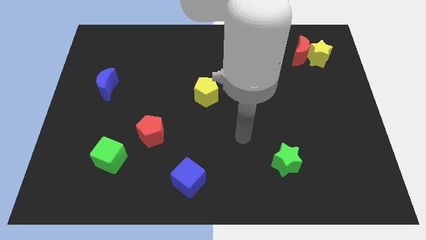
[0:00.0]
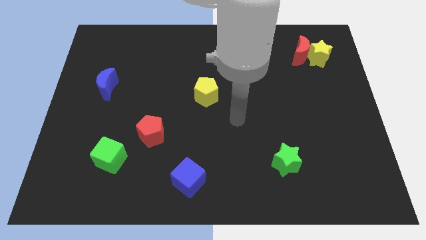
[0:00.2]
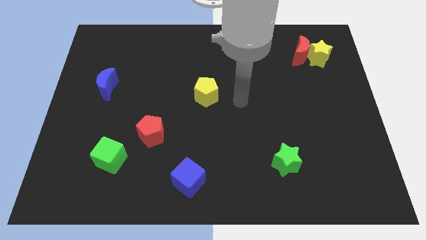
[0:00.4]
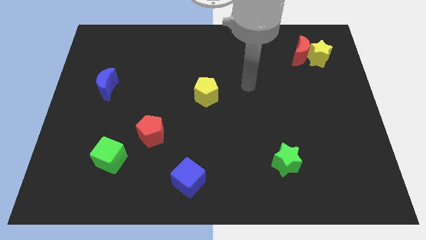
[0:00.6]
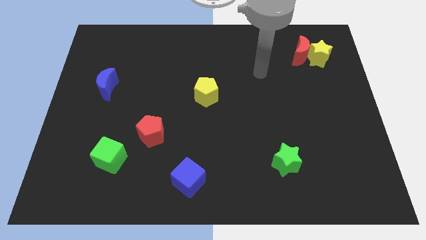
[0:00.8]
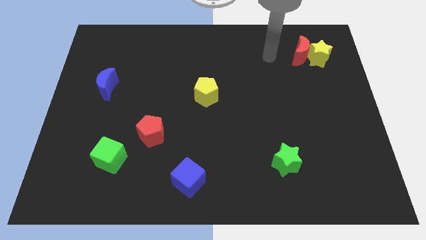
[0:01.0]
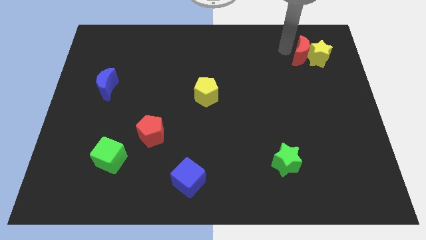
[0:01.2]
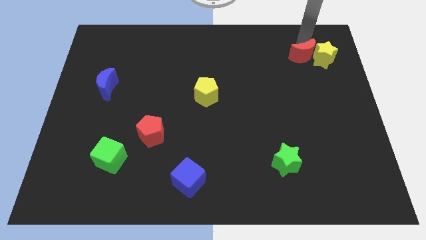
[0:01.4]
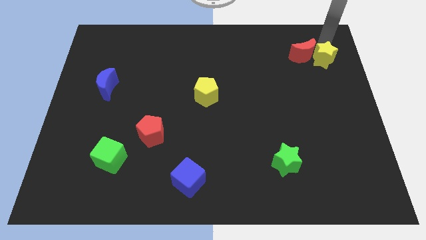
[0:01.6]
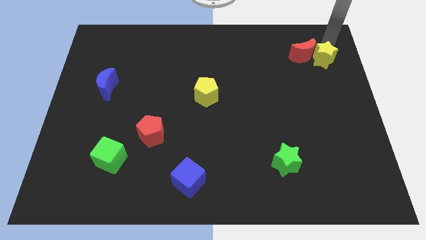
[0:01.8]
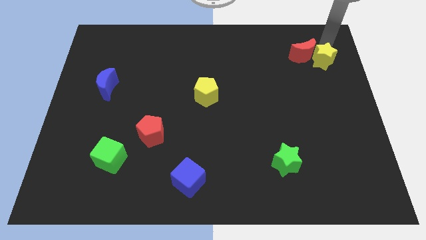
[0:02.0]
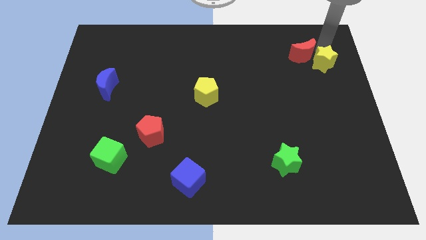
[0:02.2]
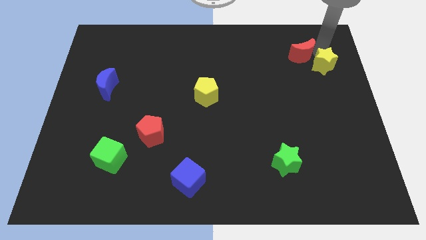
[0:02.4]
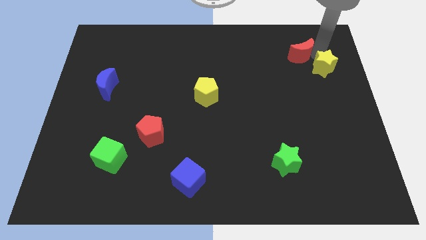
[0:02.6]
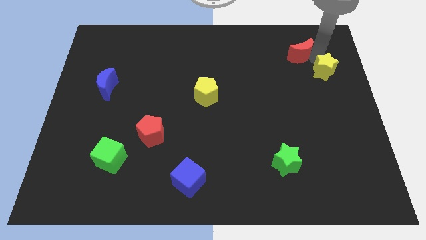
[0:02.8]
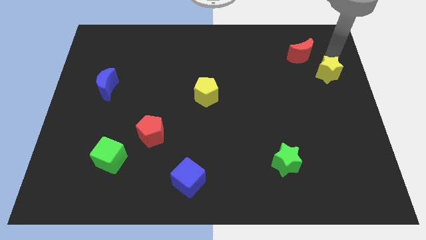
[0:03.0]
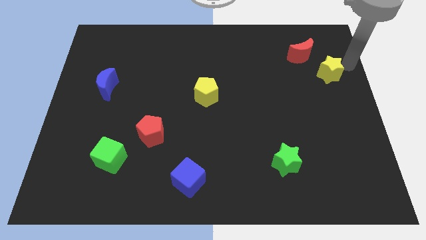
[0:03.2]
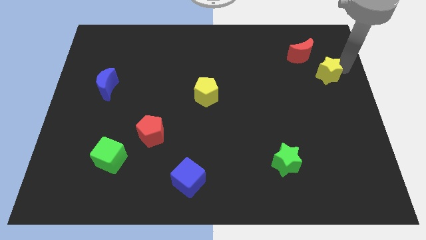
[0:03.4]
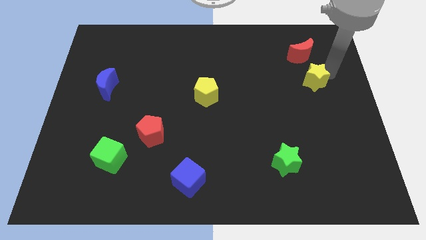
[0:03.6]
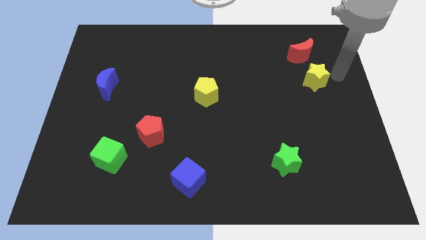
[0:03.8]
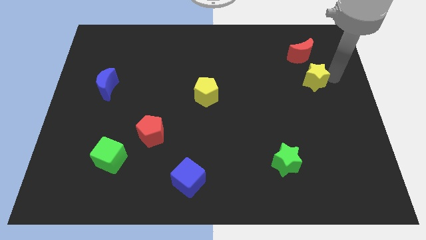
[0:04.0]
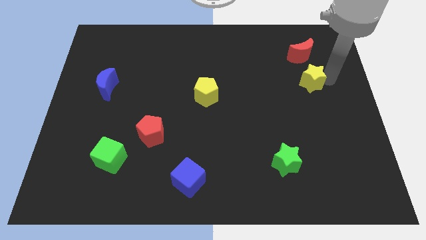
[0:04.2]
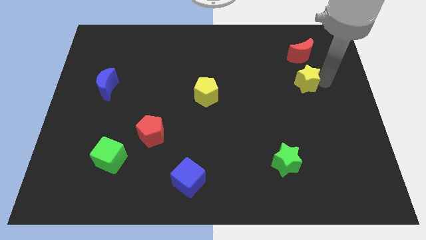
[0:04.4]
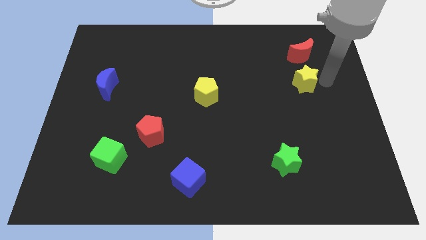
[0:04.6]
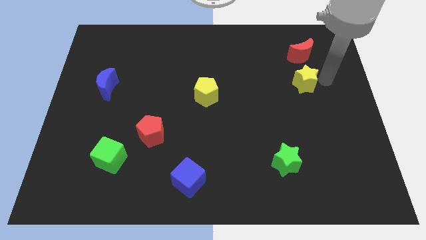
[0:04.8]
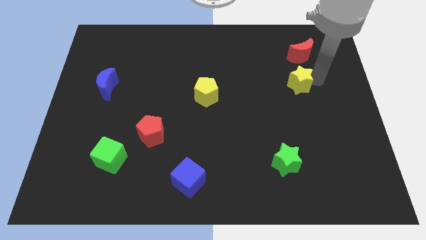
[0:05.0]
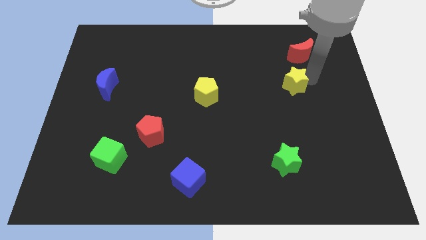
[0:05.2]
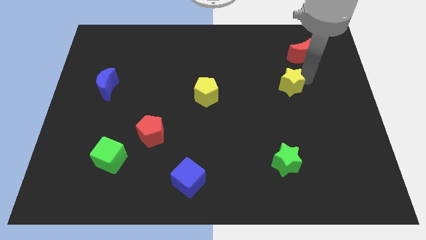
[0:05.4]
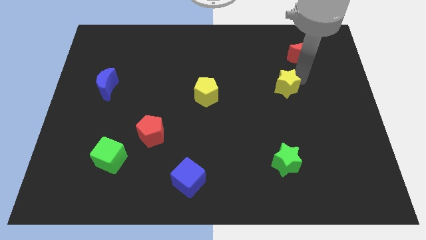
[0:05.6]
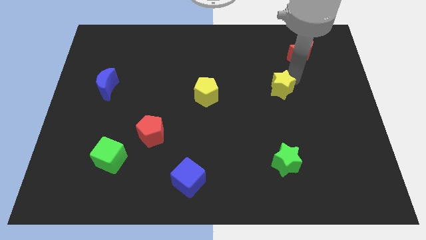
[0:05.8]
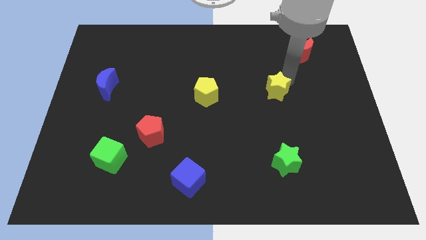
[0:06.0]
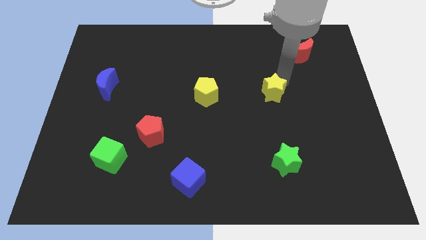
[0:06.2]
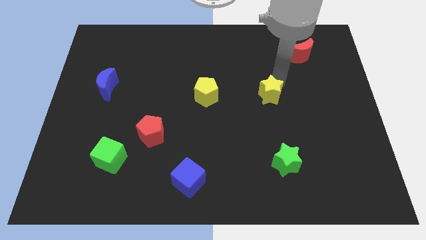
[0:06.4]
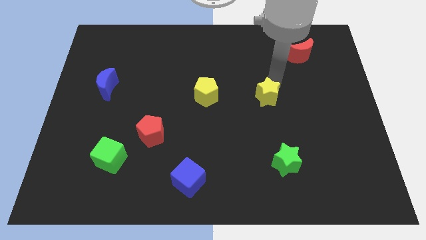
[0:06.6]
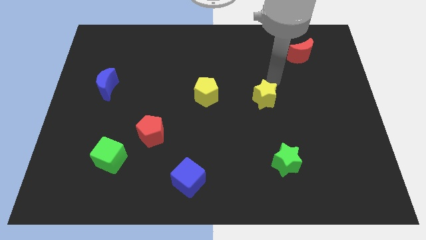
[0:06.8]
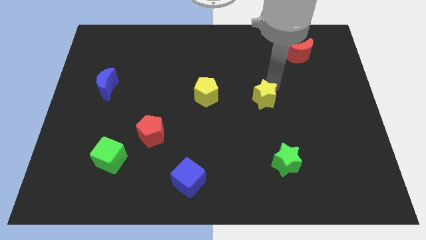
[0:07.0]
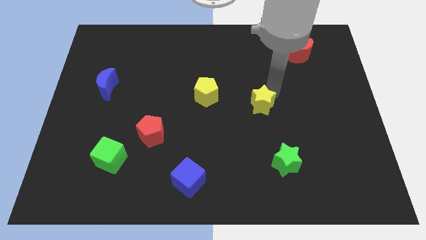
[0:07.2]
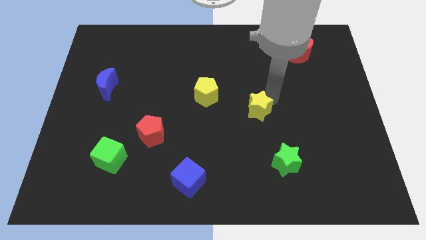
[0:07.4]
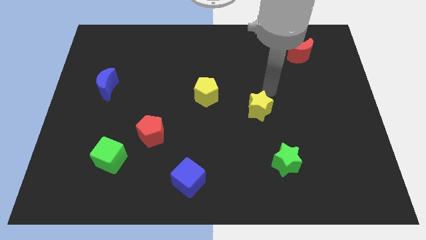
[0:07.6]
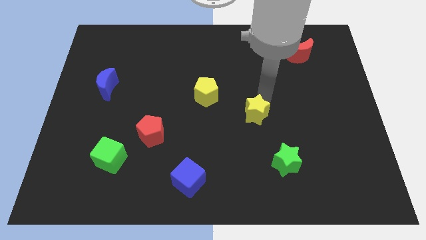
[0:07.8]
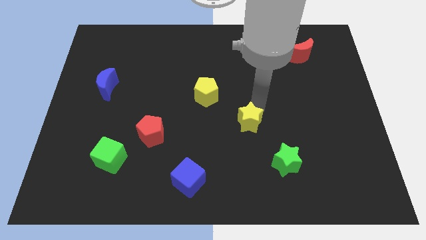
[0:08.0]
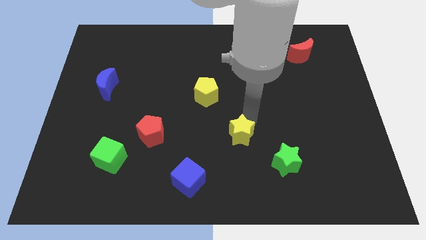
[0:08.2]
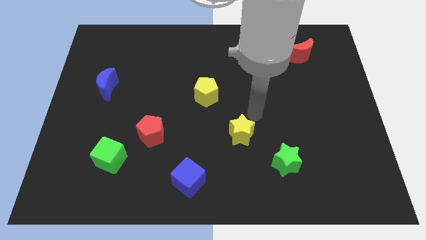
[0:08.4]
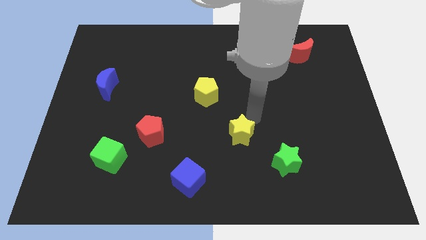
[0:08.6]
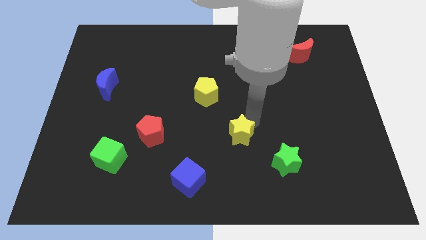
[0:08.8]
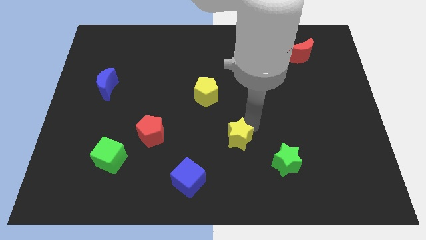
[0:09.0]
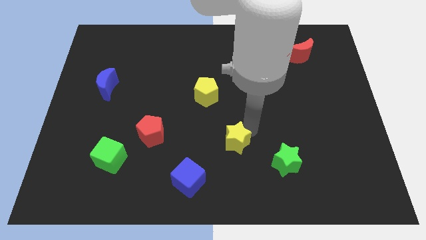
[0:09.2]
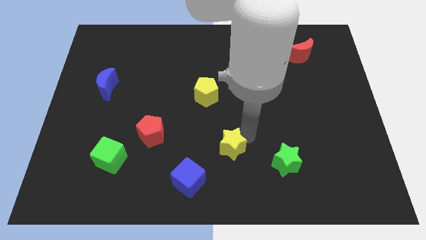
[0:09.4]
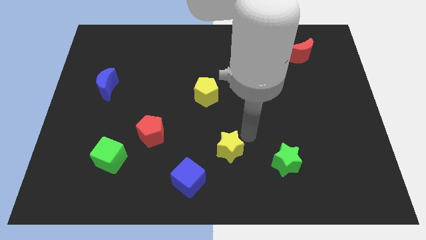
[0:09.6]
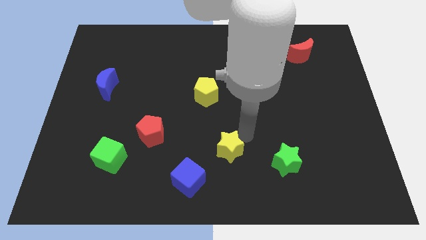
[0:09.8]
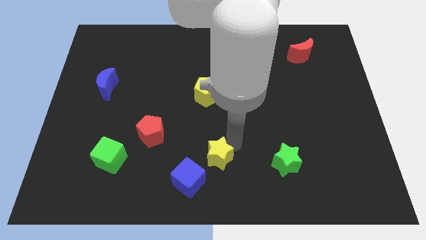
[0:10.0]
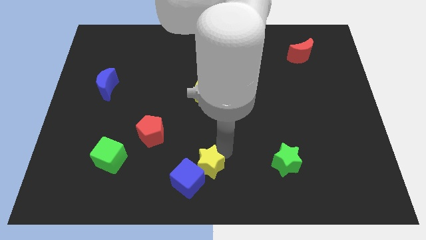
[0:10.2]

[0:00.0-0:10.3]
push the yellow star to the blue cube

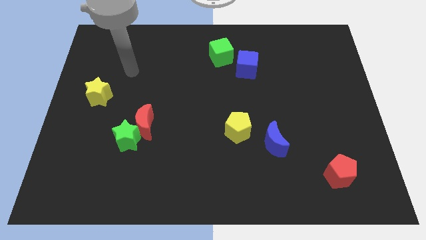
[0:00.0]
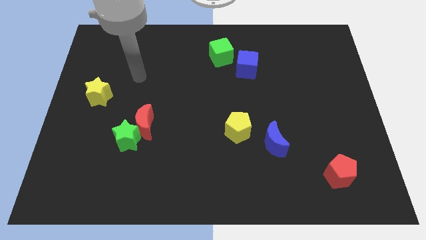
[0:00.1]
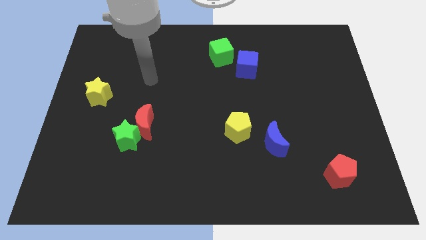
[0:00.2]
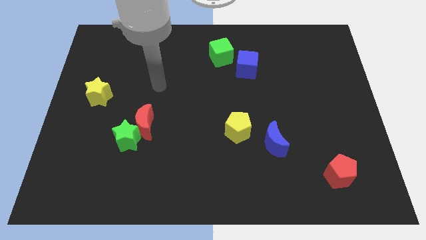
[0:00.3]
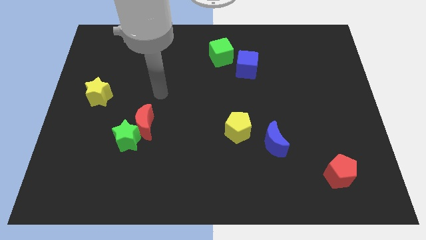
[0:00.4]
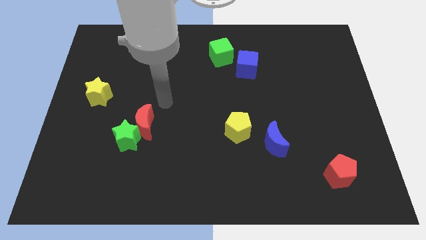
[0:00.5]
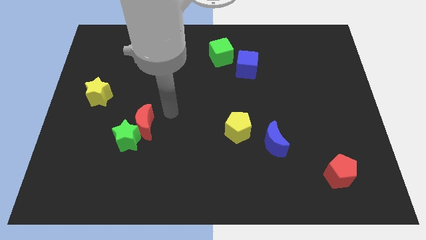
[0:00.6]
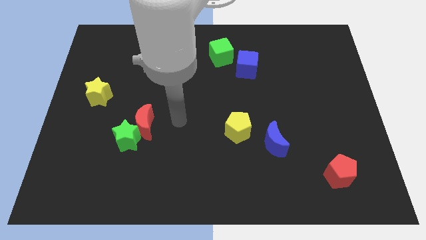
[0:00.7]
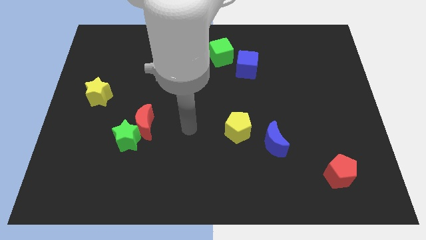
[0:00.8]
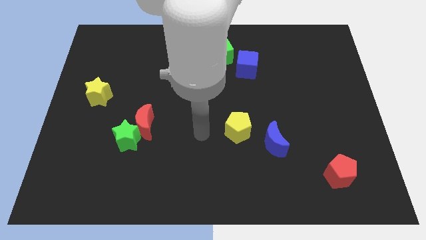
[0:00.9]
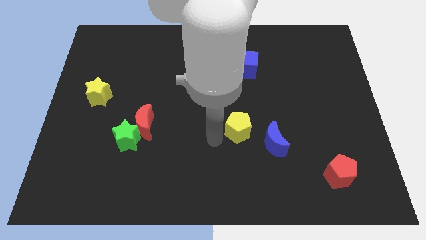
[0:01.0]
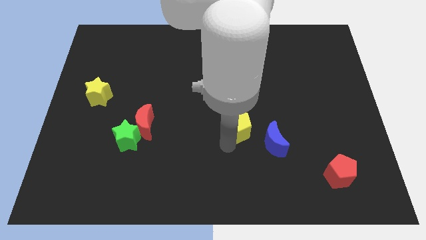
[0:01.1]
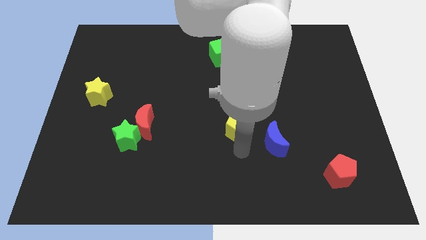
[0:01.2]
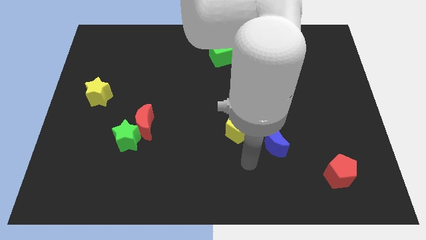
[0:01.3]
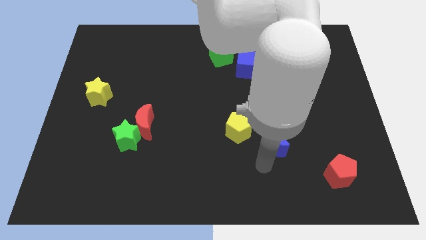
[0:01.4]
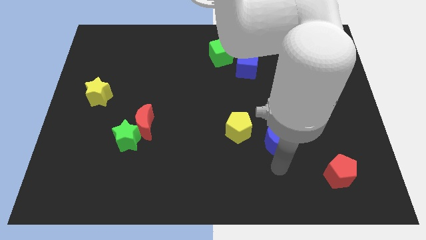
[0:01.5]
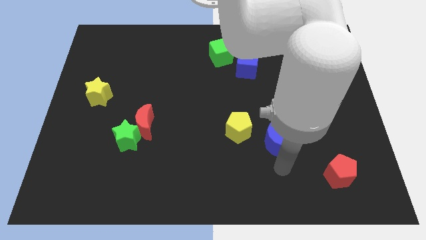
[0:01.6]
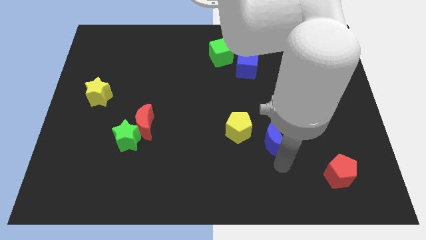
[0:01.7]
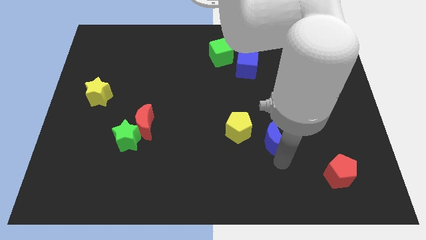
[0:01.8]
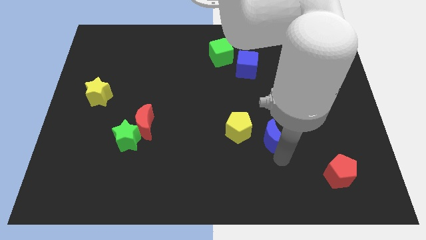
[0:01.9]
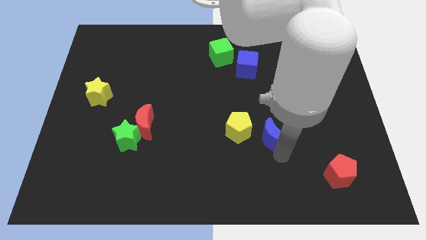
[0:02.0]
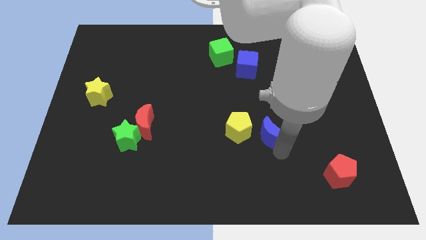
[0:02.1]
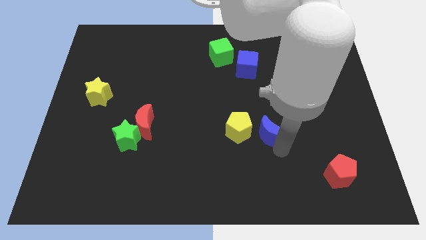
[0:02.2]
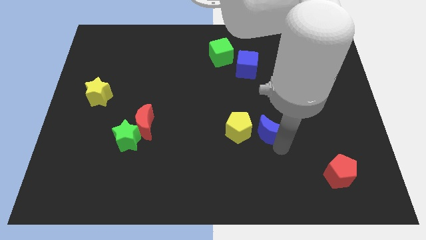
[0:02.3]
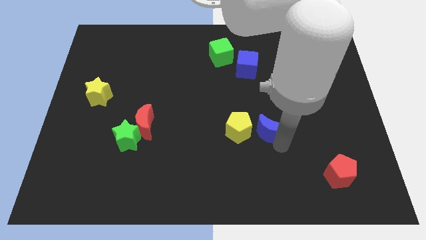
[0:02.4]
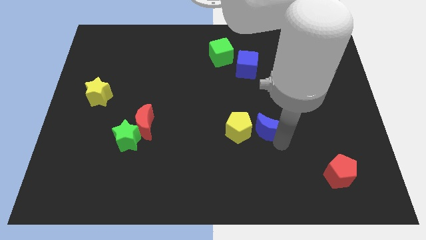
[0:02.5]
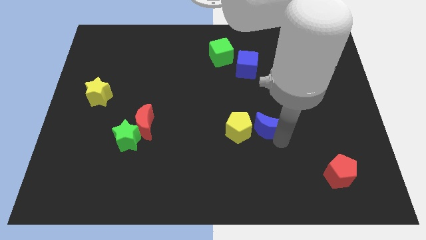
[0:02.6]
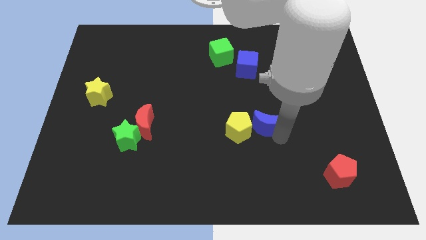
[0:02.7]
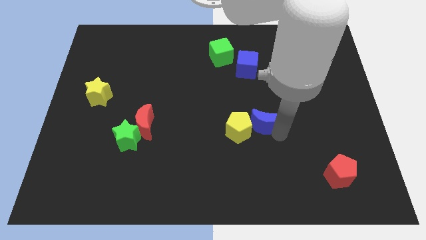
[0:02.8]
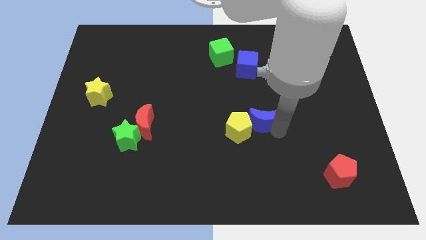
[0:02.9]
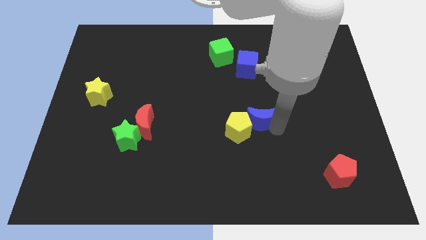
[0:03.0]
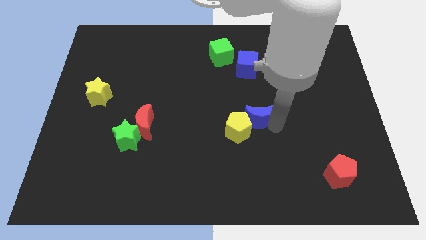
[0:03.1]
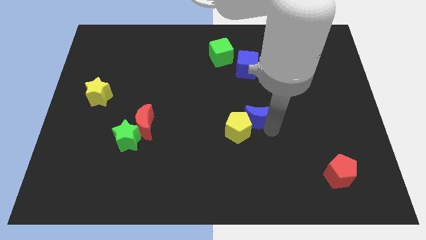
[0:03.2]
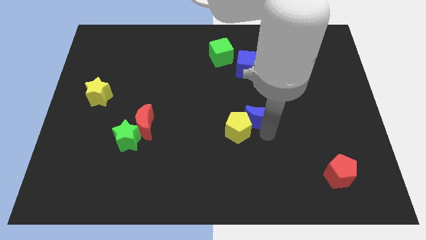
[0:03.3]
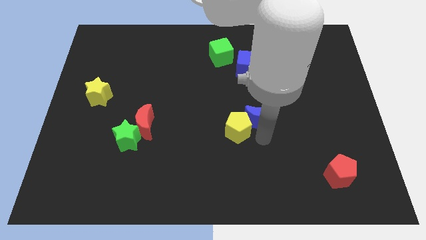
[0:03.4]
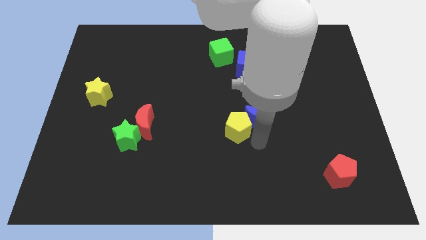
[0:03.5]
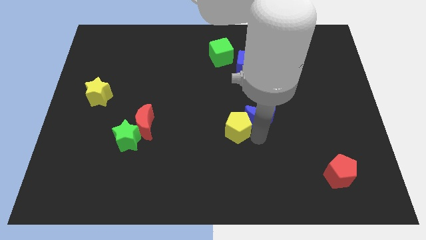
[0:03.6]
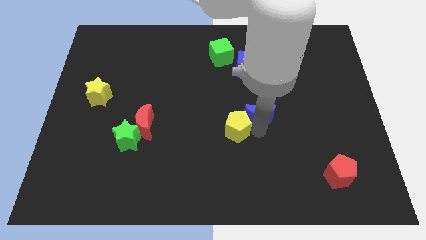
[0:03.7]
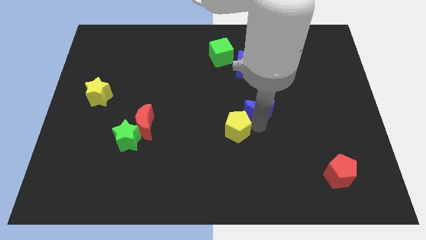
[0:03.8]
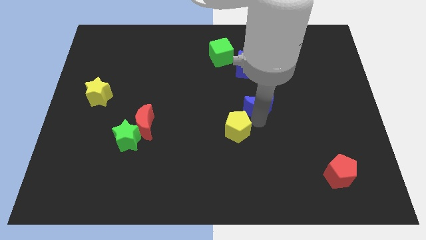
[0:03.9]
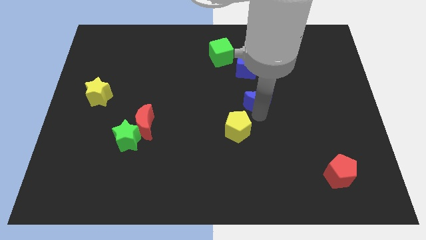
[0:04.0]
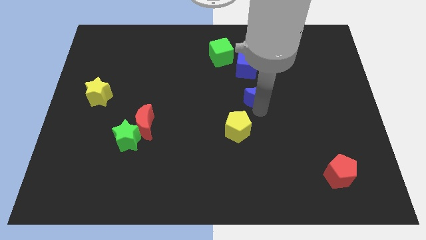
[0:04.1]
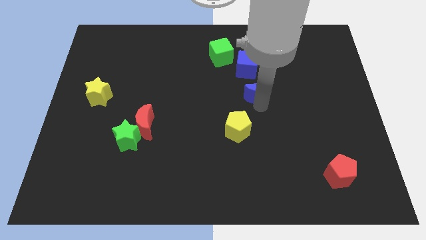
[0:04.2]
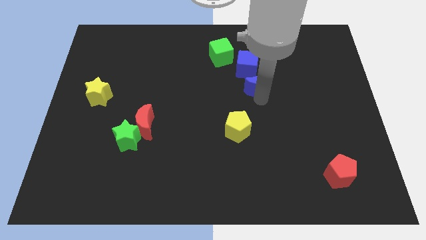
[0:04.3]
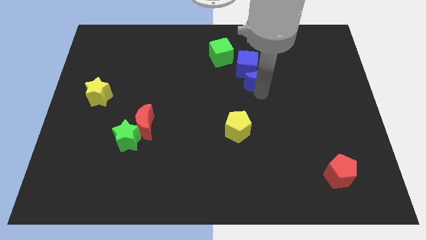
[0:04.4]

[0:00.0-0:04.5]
move the blue moon next to the blue cube
